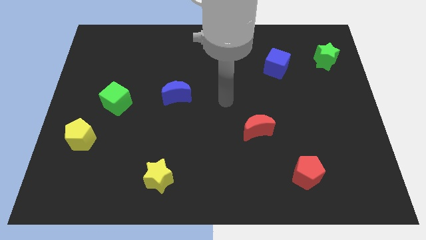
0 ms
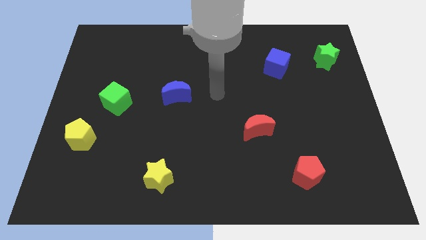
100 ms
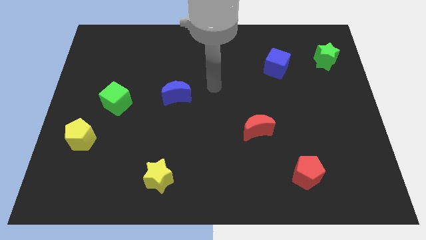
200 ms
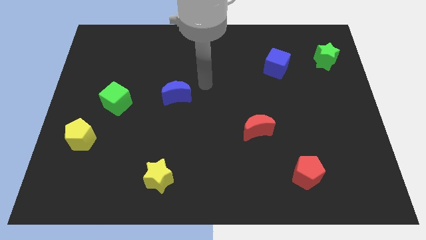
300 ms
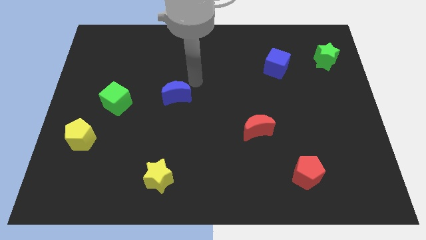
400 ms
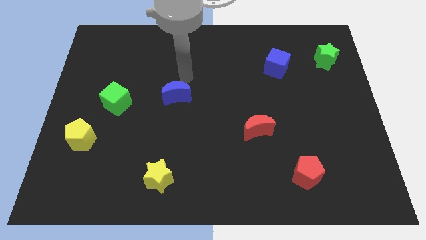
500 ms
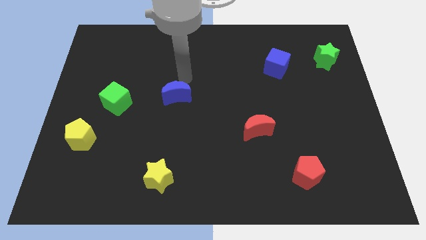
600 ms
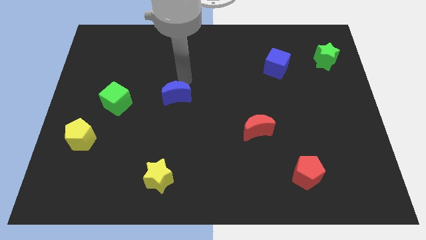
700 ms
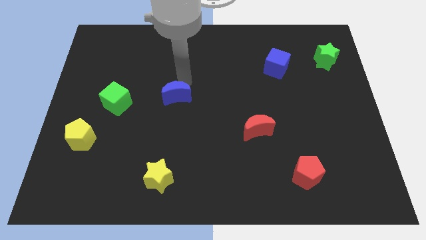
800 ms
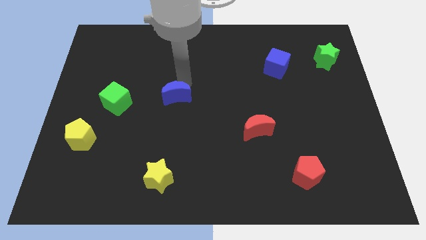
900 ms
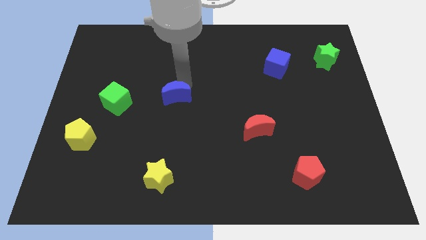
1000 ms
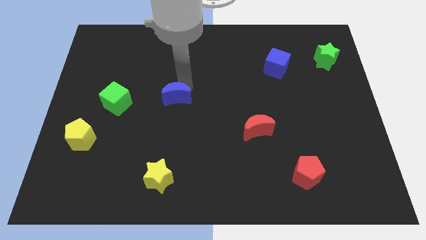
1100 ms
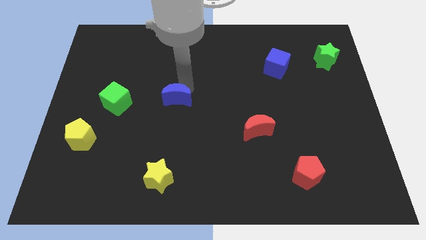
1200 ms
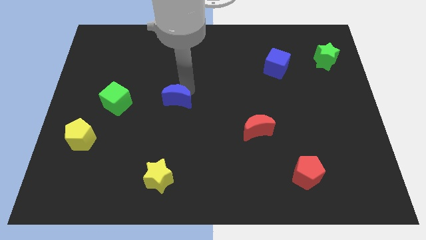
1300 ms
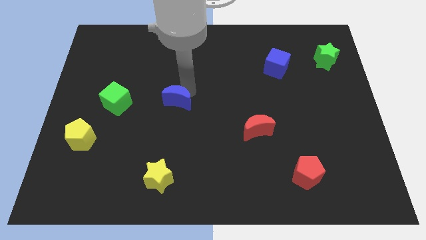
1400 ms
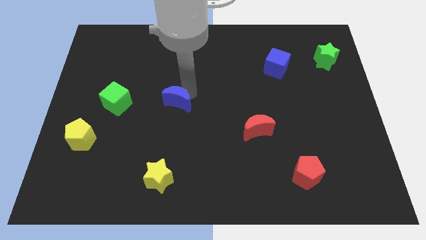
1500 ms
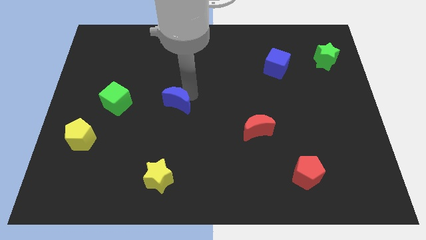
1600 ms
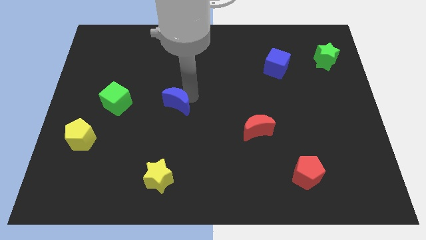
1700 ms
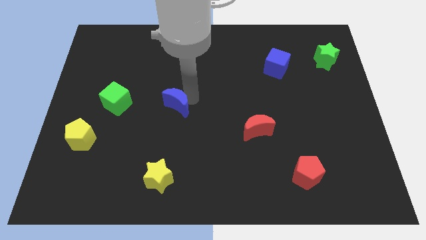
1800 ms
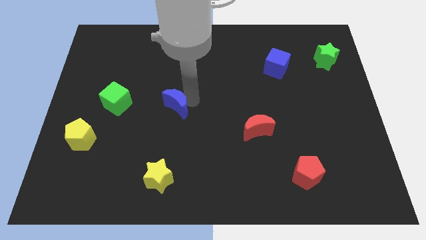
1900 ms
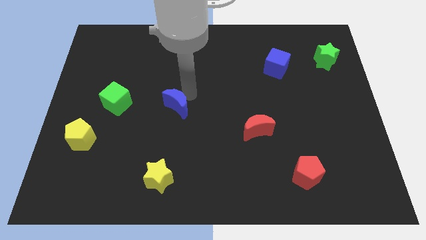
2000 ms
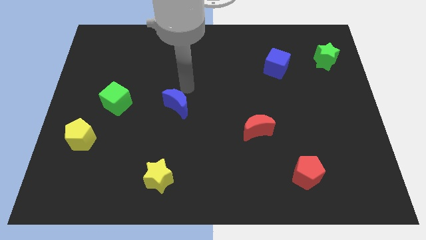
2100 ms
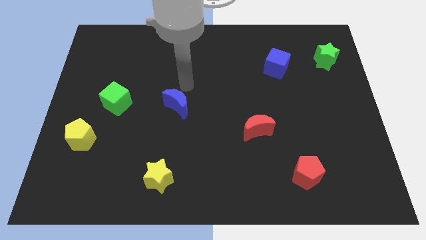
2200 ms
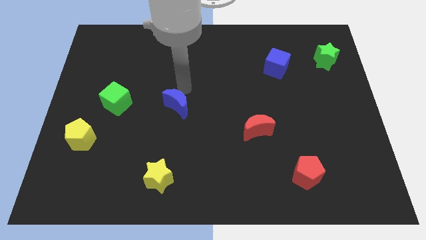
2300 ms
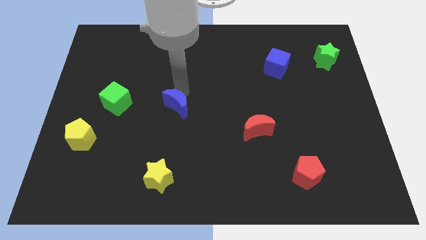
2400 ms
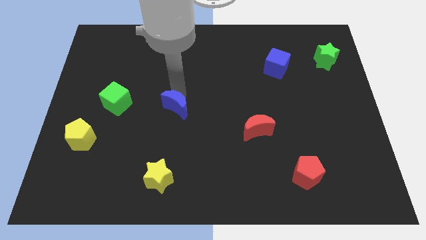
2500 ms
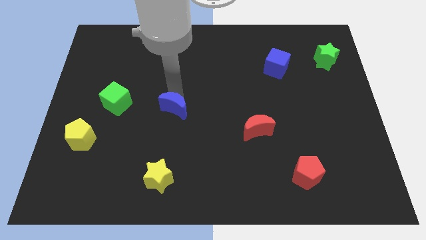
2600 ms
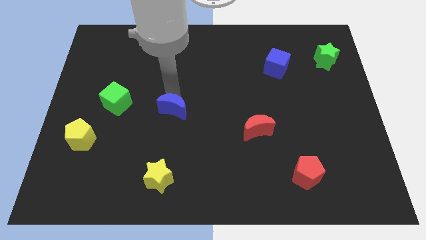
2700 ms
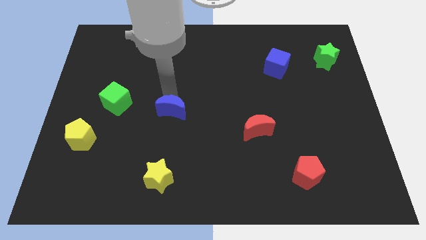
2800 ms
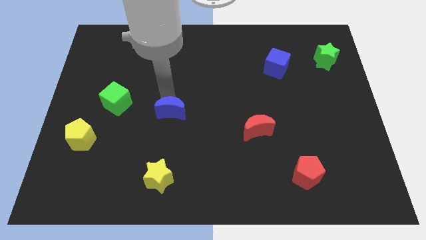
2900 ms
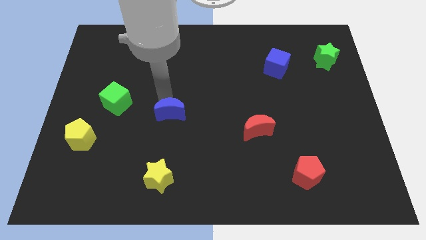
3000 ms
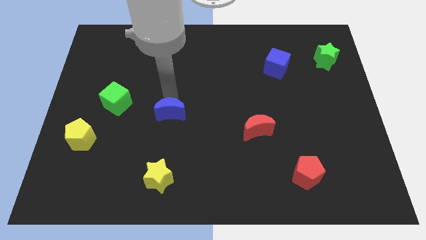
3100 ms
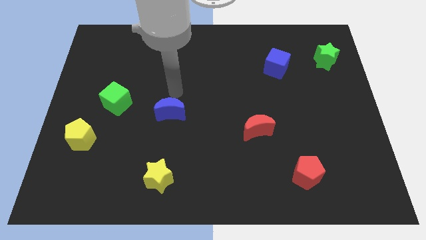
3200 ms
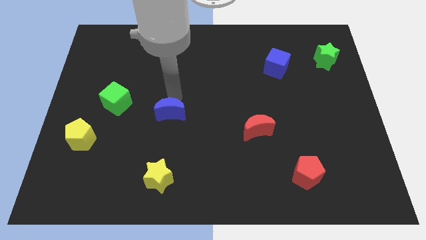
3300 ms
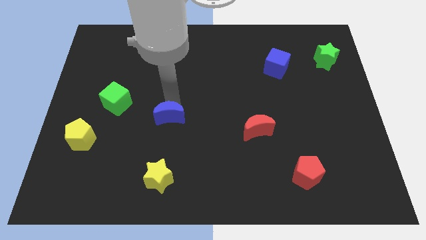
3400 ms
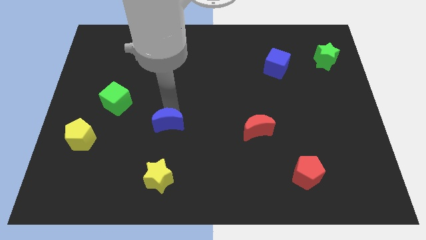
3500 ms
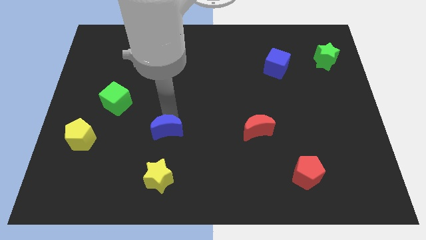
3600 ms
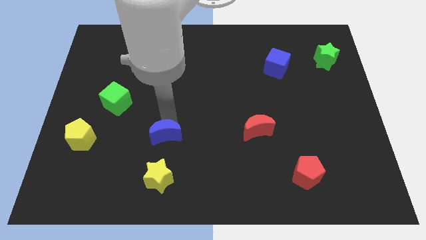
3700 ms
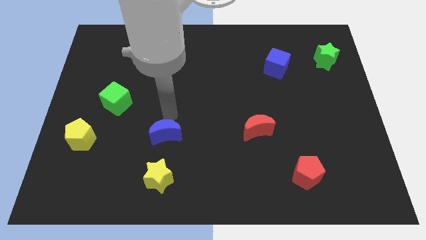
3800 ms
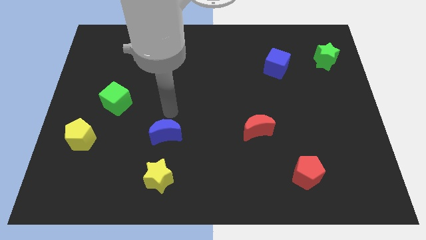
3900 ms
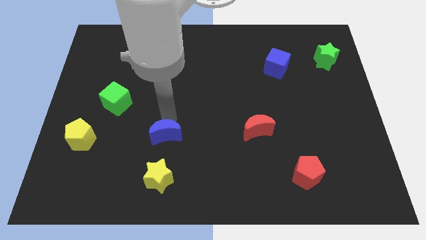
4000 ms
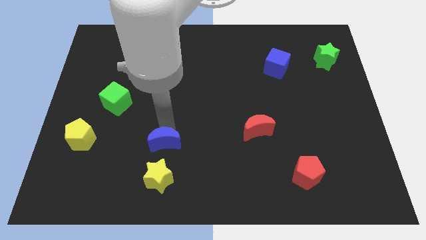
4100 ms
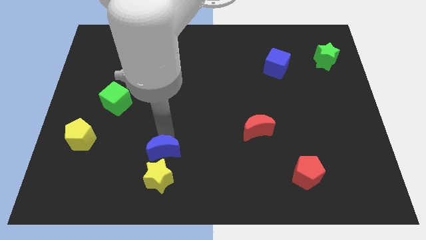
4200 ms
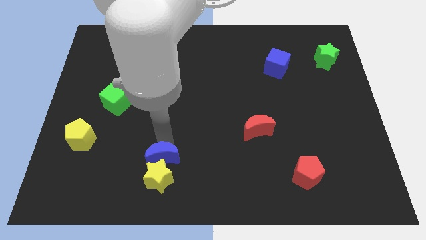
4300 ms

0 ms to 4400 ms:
push the blue moon close to the yellow star

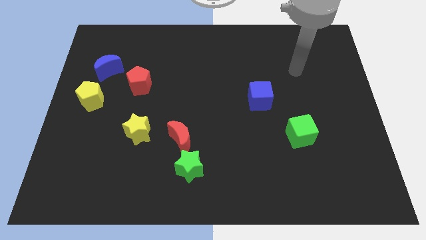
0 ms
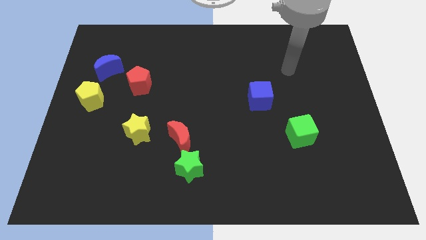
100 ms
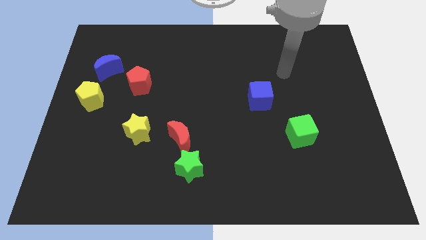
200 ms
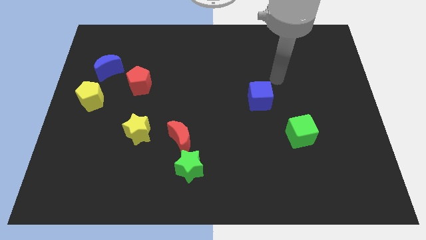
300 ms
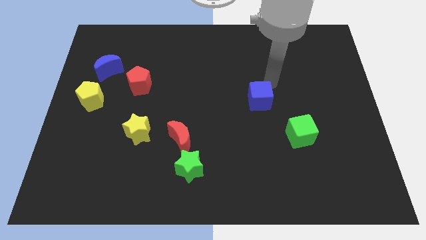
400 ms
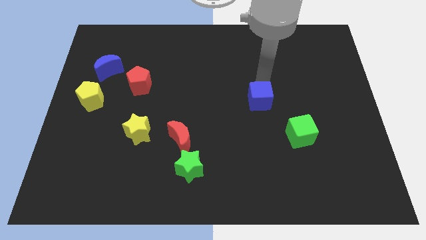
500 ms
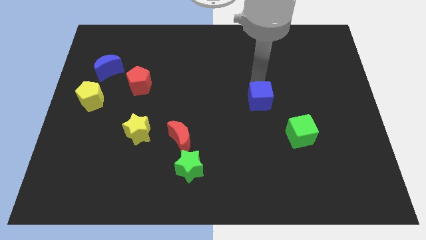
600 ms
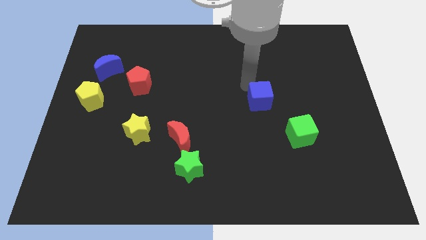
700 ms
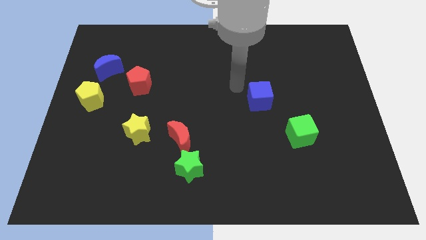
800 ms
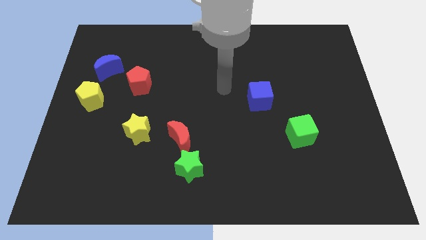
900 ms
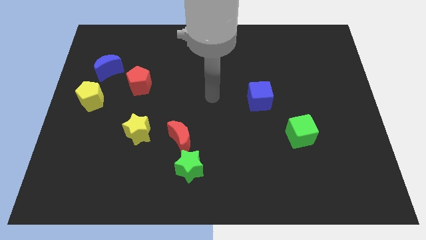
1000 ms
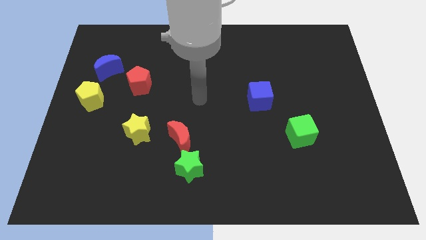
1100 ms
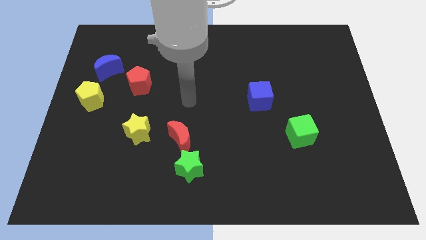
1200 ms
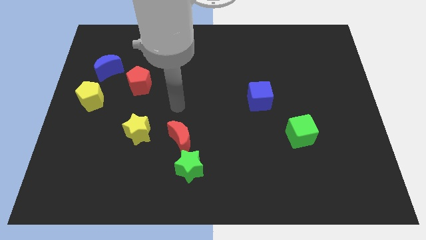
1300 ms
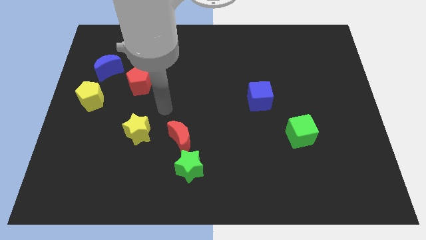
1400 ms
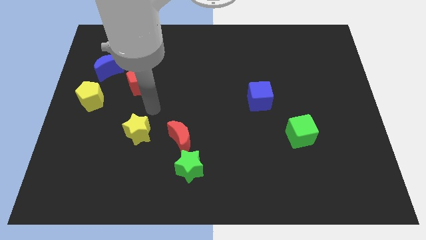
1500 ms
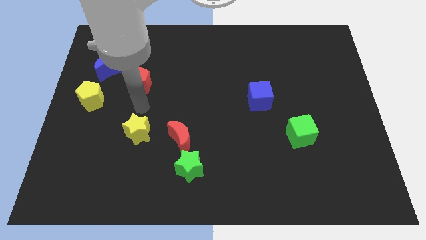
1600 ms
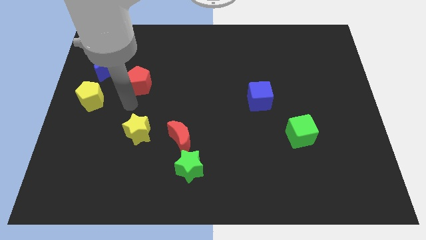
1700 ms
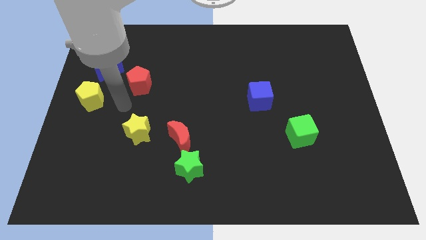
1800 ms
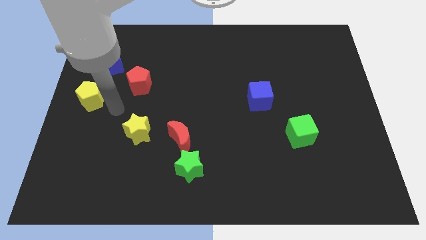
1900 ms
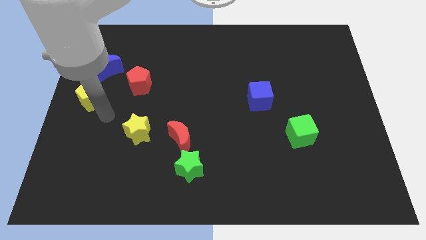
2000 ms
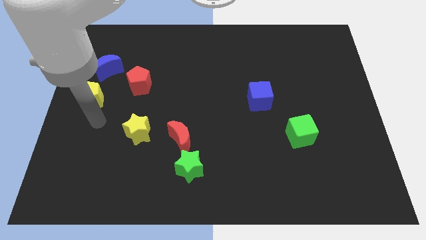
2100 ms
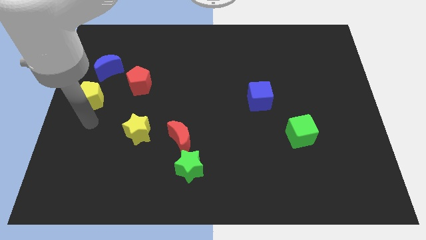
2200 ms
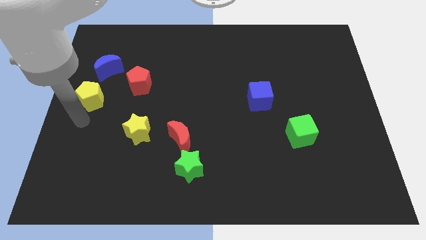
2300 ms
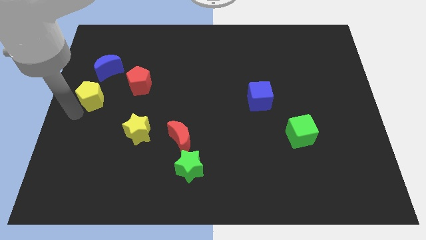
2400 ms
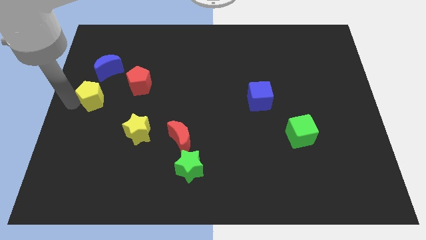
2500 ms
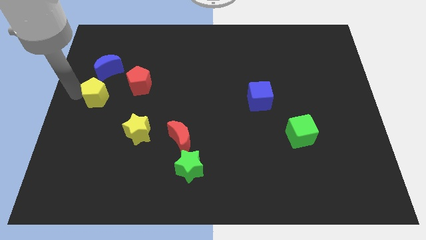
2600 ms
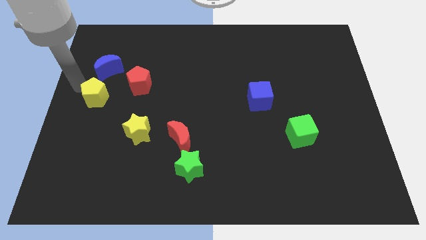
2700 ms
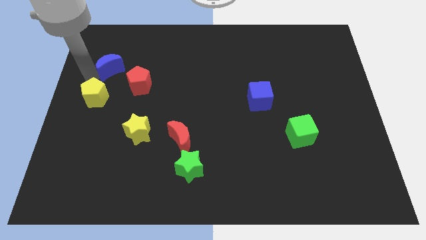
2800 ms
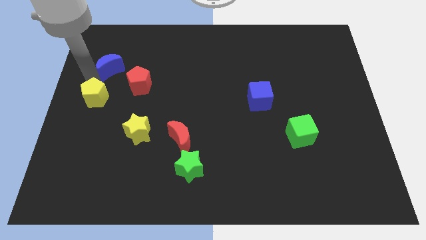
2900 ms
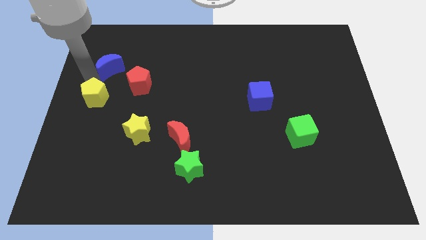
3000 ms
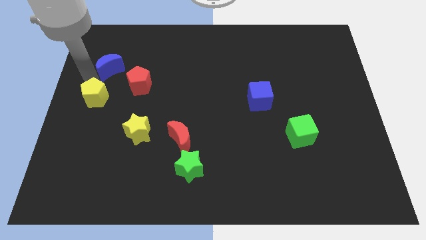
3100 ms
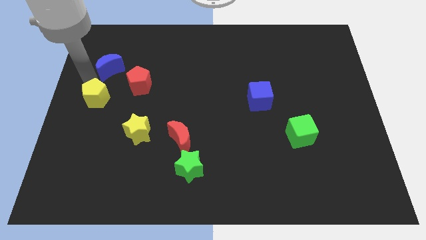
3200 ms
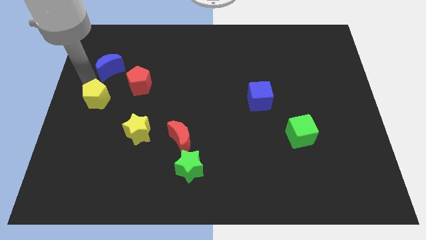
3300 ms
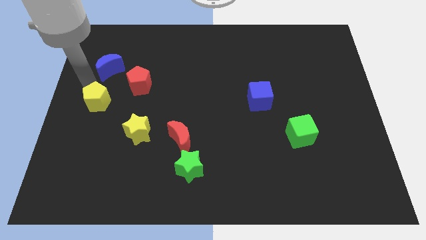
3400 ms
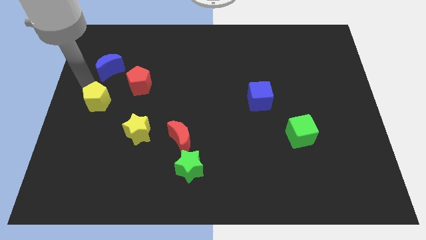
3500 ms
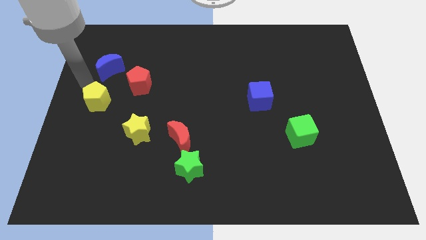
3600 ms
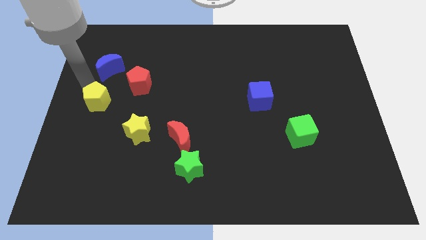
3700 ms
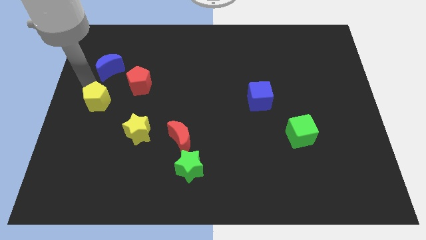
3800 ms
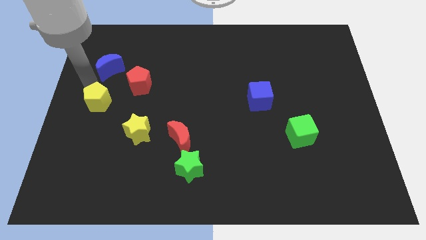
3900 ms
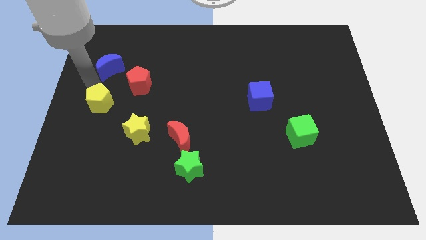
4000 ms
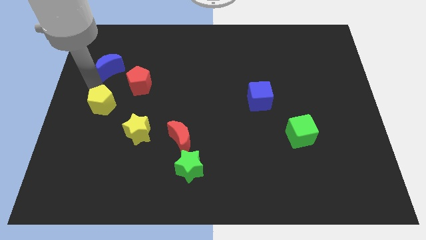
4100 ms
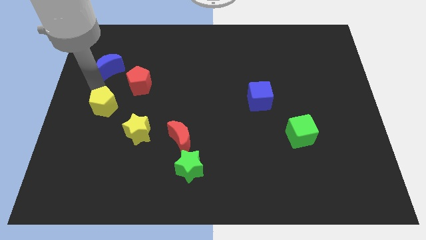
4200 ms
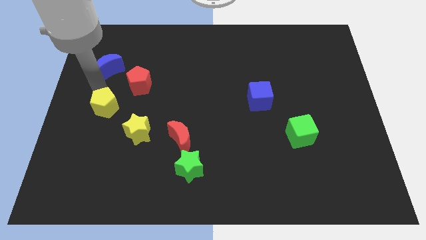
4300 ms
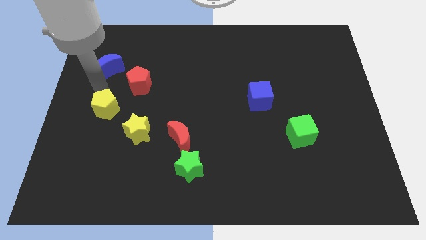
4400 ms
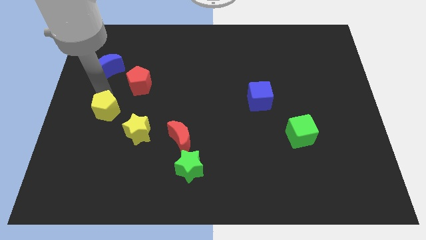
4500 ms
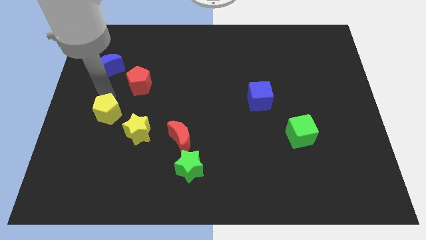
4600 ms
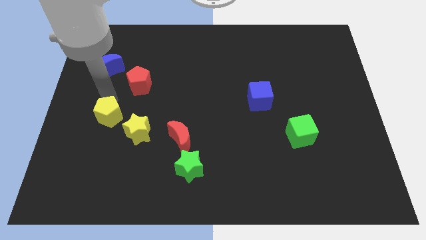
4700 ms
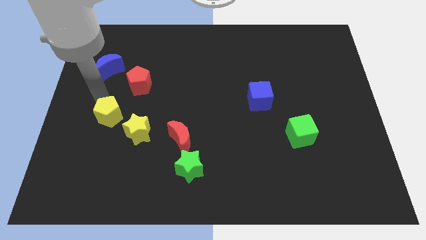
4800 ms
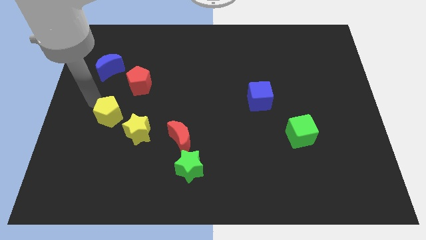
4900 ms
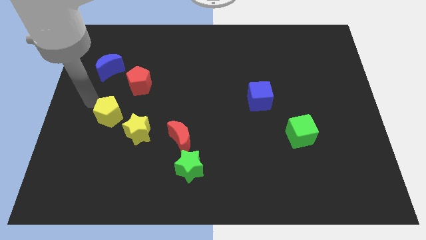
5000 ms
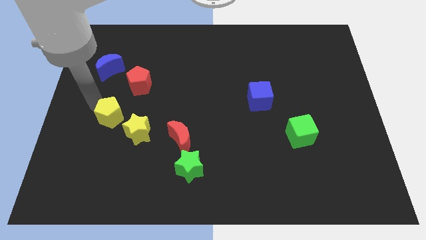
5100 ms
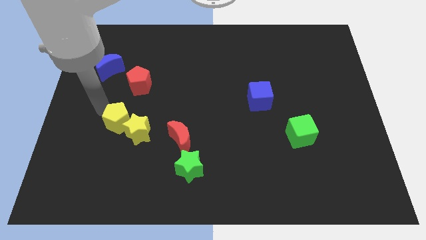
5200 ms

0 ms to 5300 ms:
put the yellow pentagon towards the yellow star
